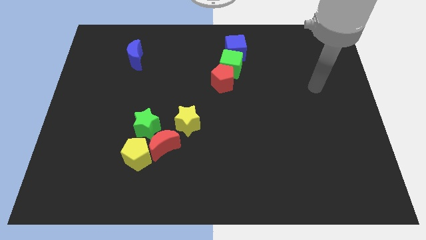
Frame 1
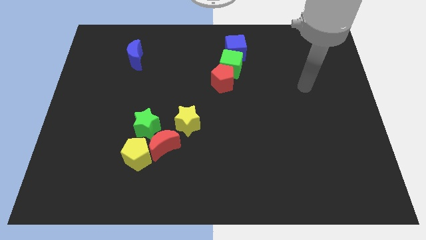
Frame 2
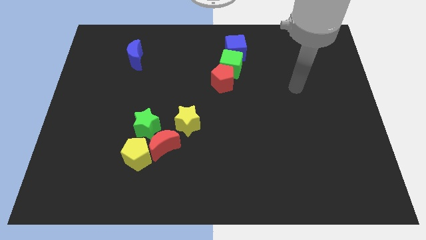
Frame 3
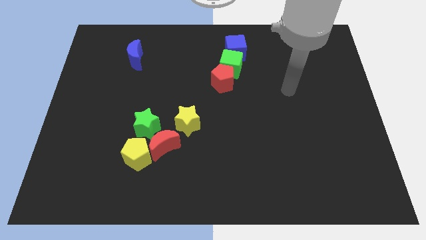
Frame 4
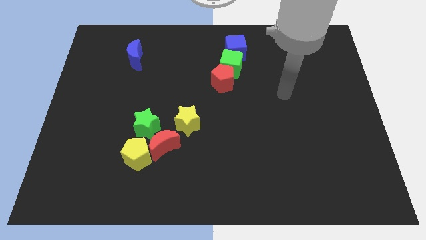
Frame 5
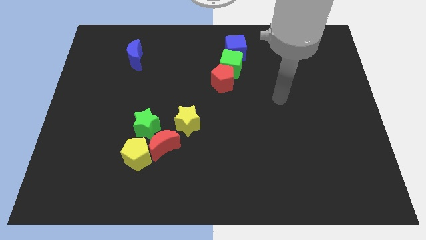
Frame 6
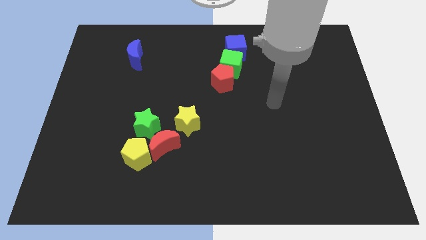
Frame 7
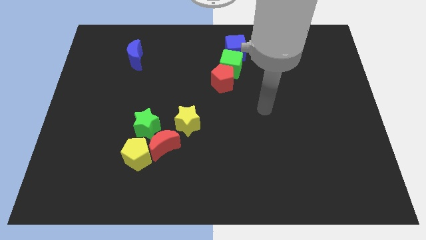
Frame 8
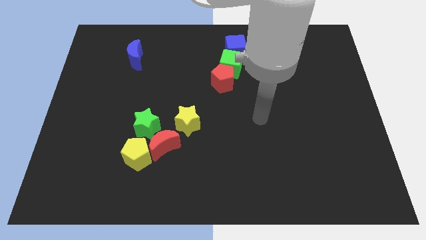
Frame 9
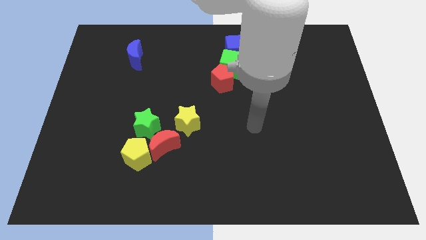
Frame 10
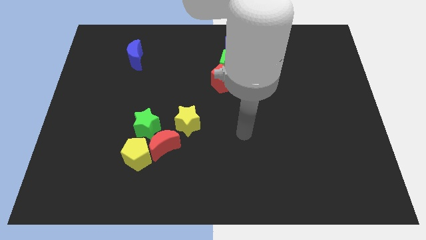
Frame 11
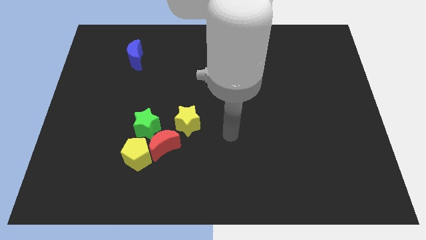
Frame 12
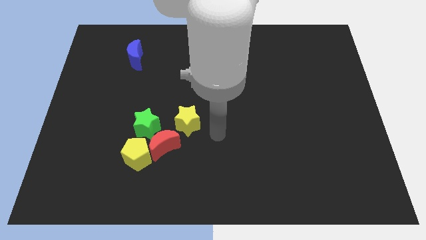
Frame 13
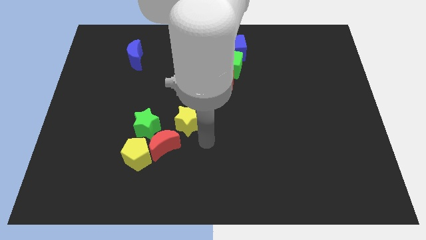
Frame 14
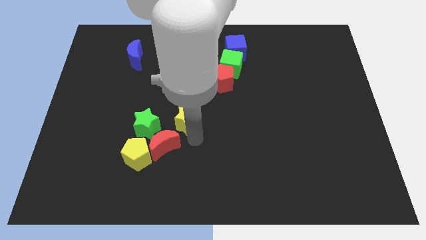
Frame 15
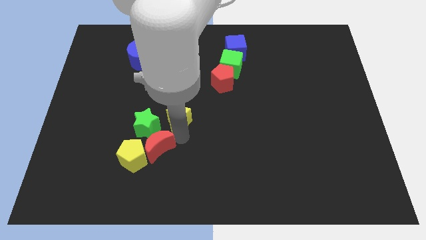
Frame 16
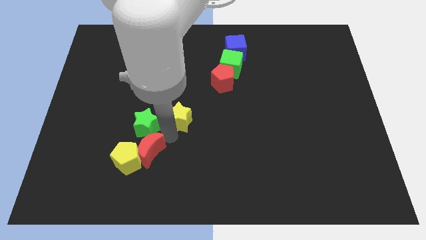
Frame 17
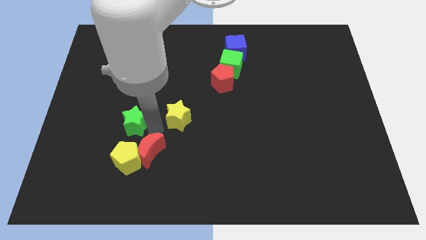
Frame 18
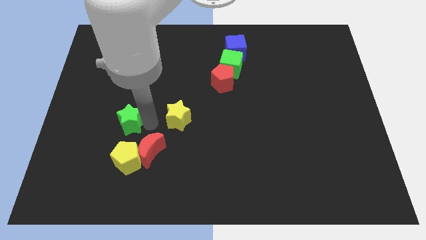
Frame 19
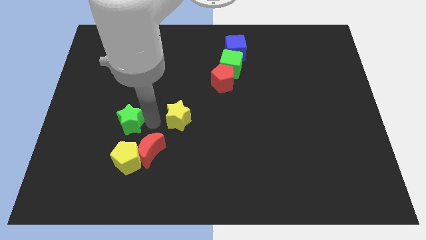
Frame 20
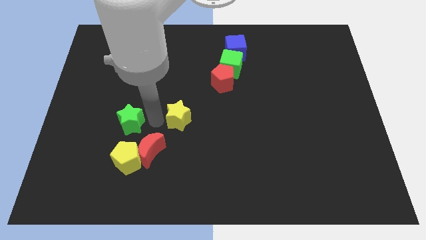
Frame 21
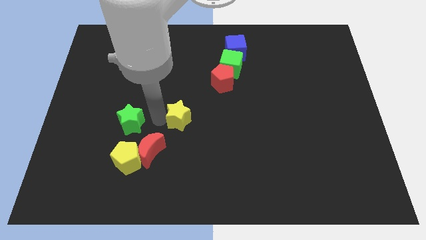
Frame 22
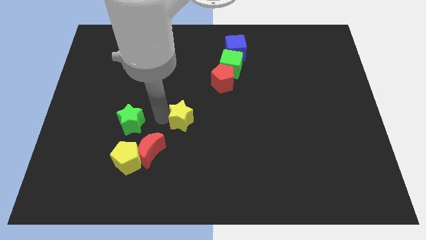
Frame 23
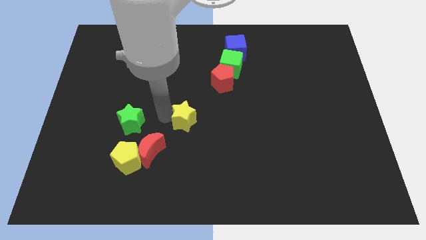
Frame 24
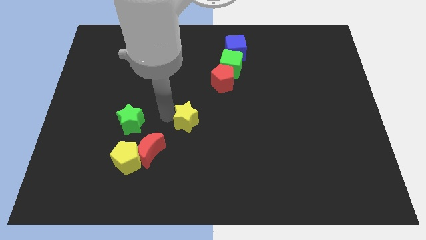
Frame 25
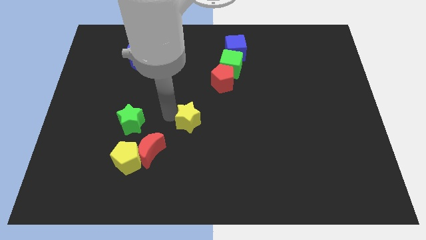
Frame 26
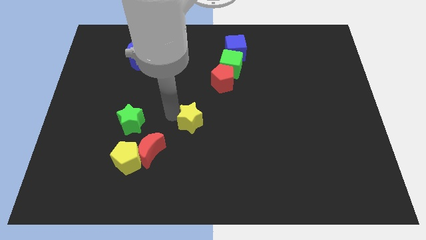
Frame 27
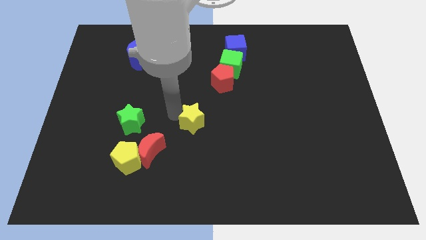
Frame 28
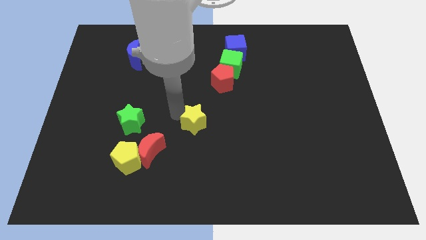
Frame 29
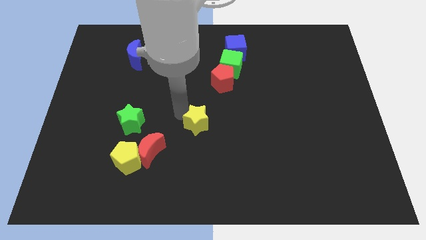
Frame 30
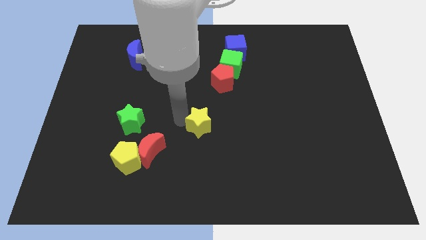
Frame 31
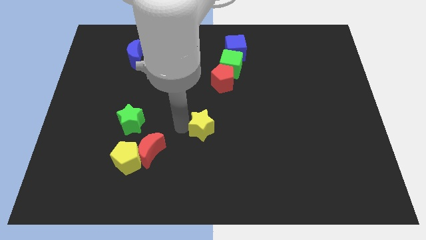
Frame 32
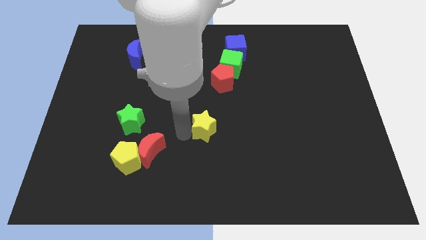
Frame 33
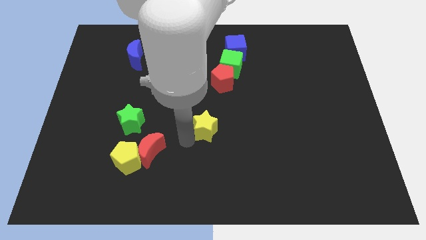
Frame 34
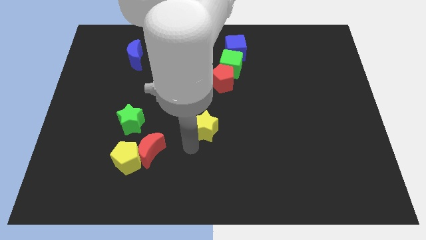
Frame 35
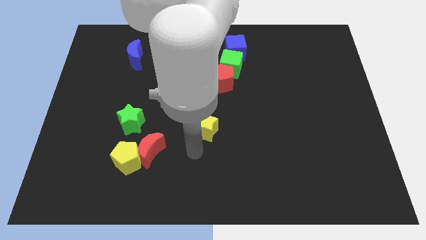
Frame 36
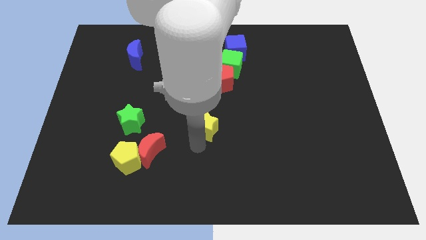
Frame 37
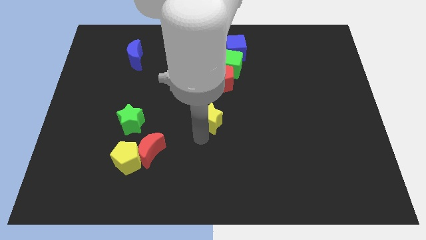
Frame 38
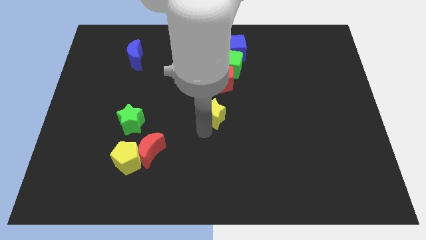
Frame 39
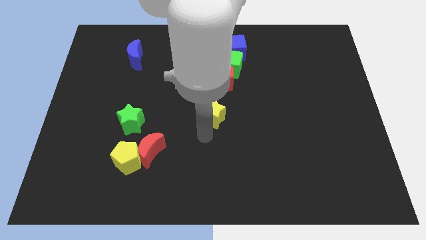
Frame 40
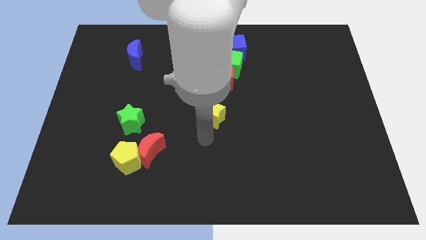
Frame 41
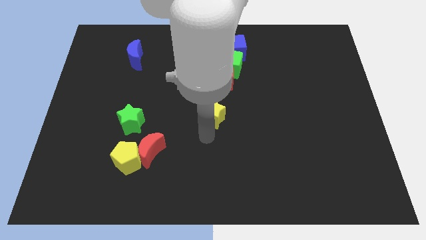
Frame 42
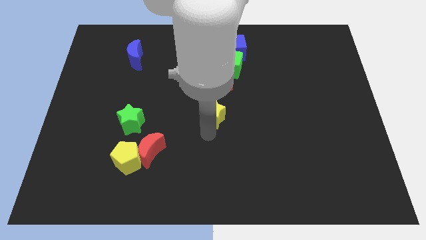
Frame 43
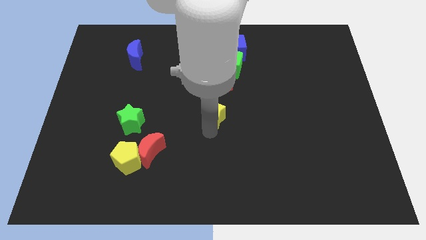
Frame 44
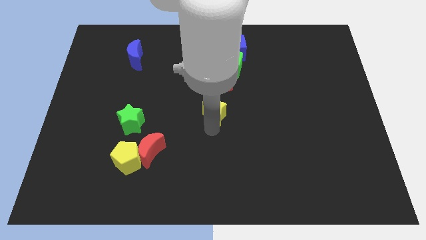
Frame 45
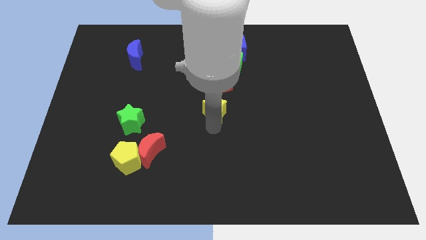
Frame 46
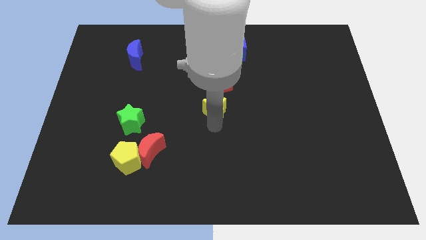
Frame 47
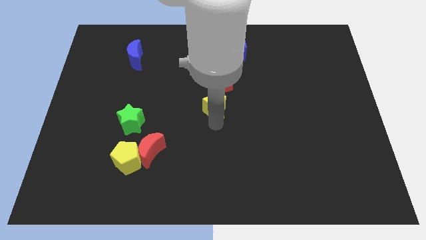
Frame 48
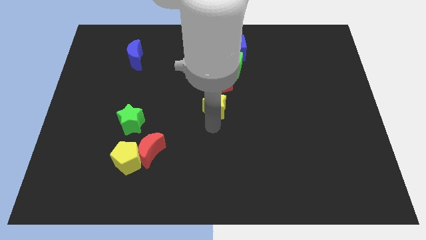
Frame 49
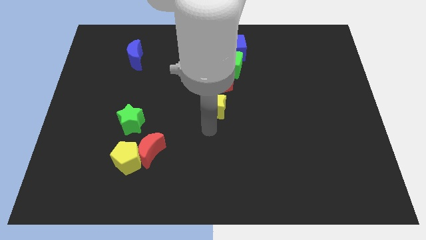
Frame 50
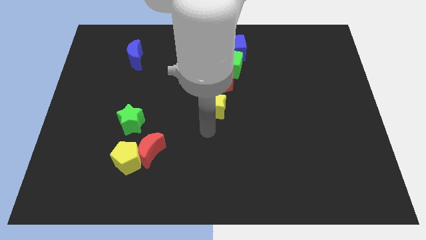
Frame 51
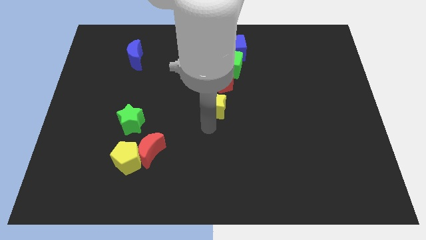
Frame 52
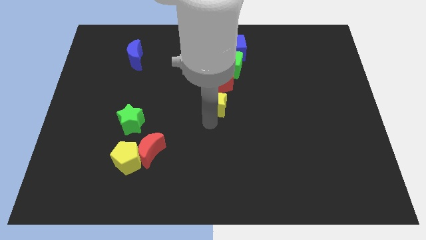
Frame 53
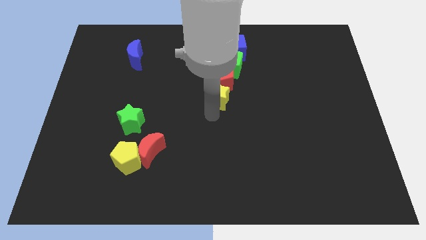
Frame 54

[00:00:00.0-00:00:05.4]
move the yellow star close to the red pentagon

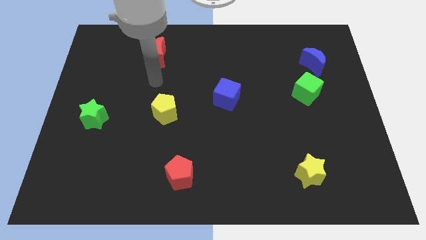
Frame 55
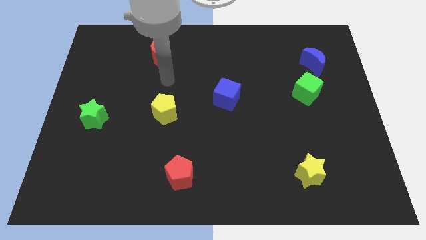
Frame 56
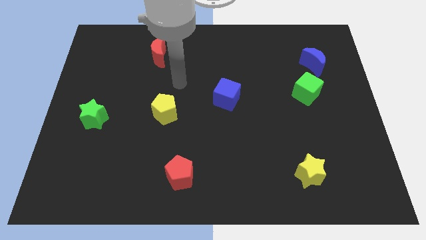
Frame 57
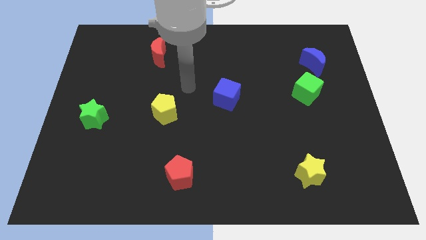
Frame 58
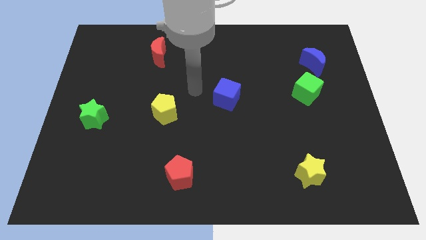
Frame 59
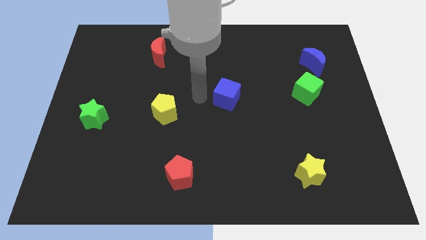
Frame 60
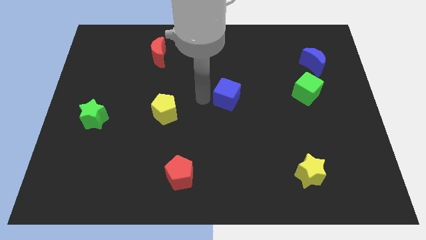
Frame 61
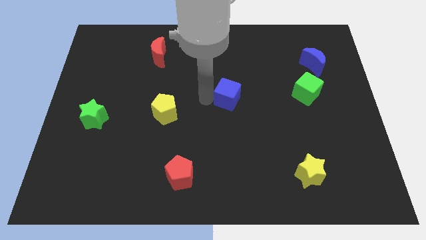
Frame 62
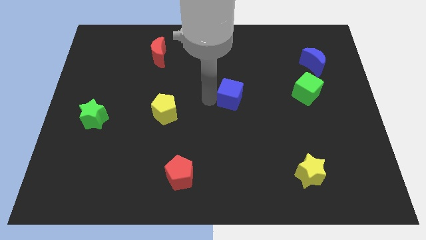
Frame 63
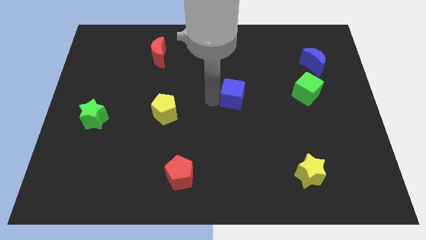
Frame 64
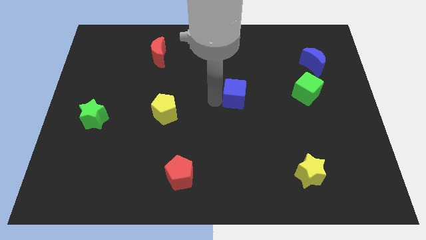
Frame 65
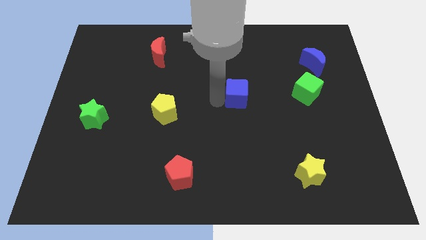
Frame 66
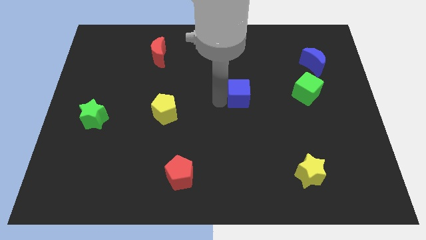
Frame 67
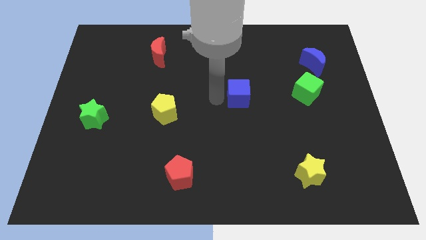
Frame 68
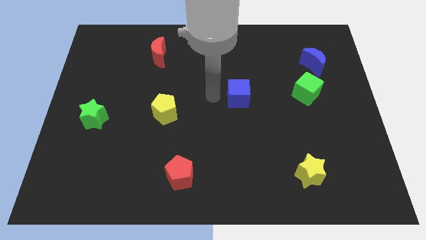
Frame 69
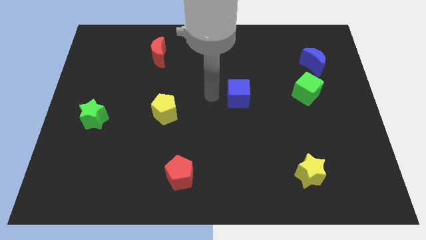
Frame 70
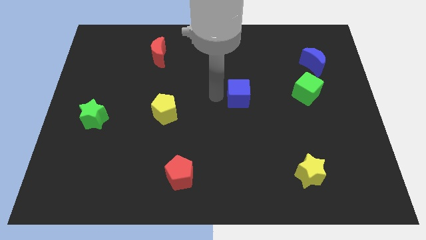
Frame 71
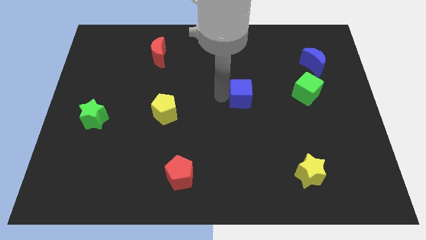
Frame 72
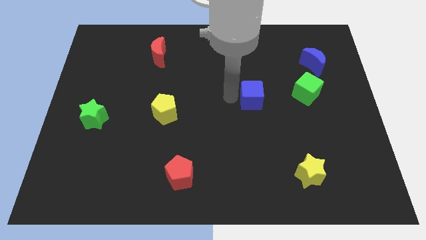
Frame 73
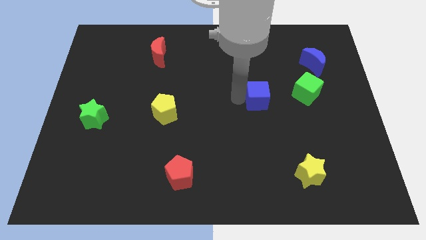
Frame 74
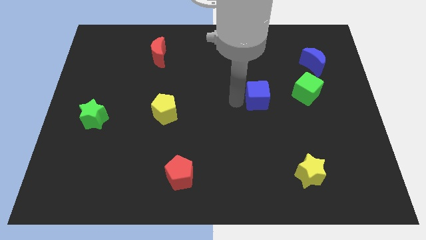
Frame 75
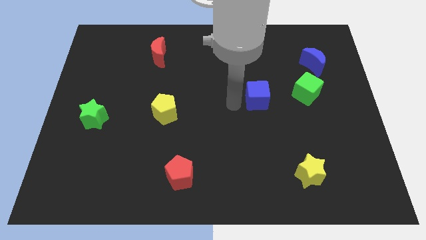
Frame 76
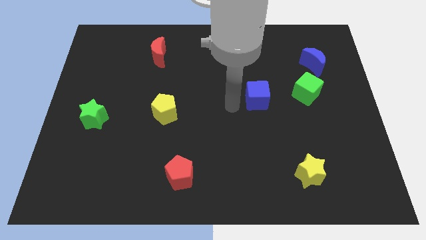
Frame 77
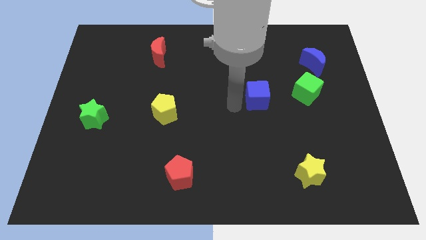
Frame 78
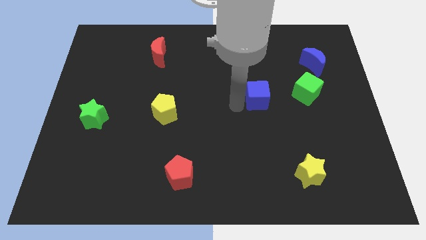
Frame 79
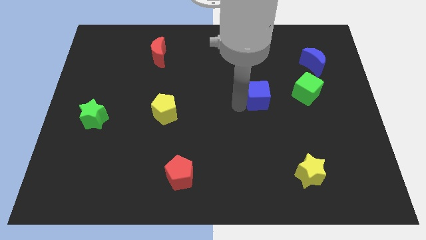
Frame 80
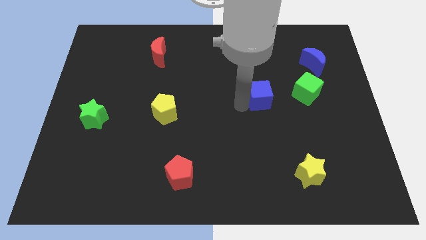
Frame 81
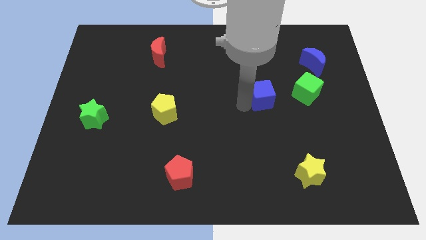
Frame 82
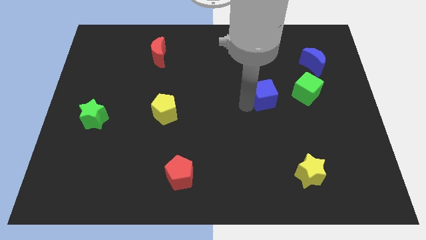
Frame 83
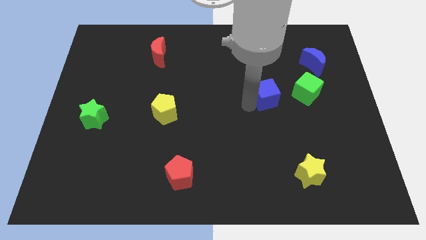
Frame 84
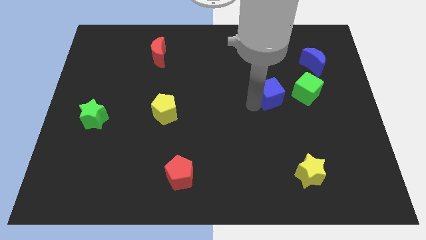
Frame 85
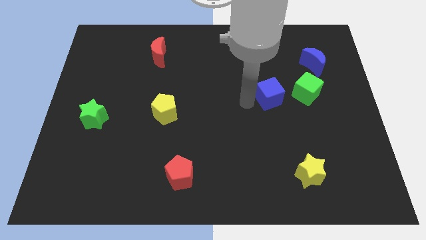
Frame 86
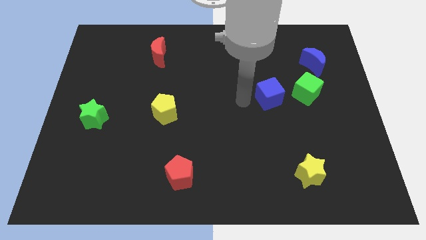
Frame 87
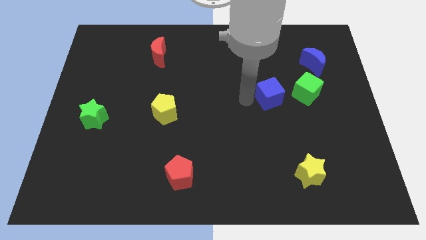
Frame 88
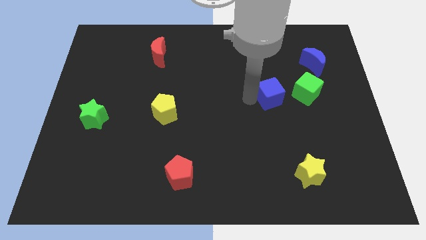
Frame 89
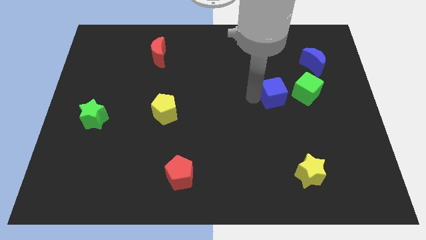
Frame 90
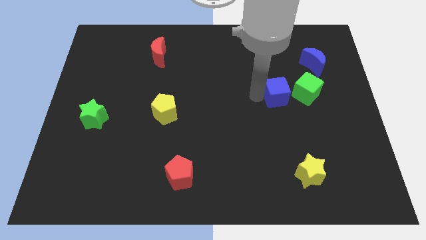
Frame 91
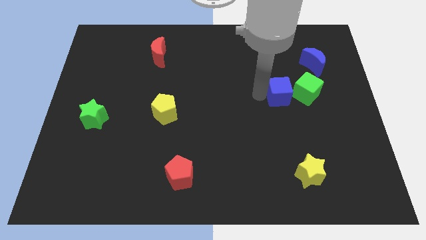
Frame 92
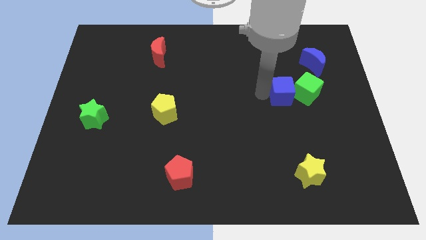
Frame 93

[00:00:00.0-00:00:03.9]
move the blue cube to the green cube
